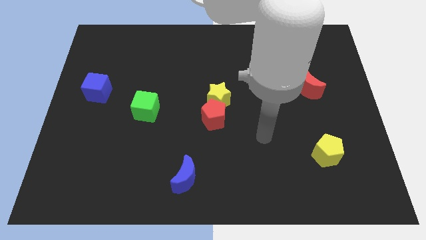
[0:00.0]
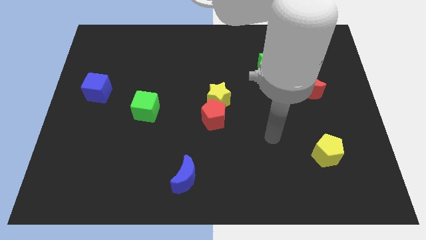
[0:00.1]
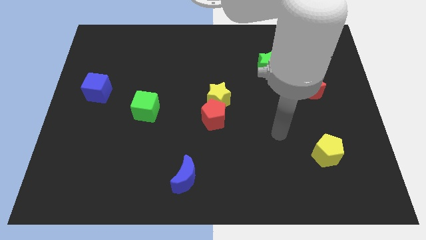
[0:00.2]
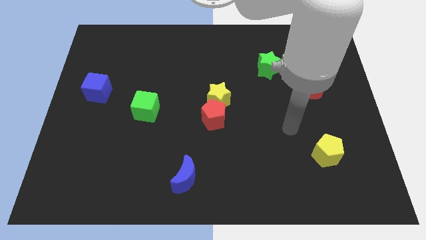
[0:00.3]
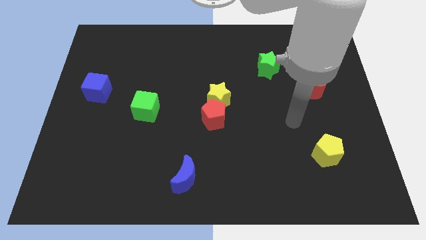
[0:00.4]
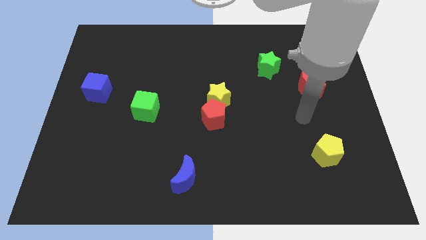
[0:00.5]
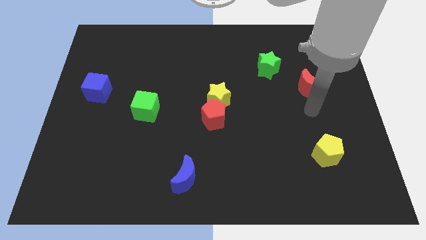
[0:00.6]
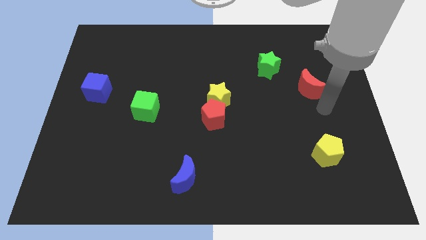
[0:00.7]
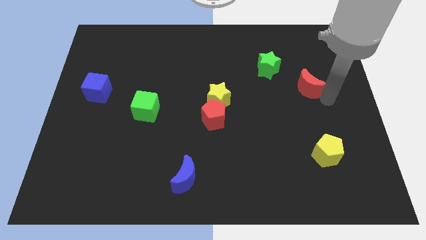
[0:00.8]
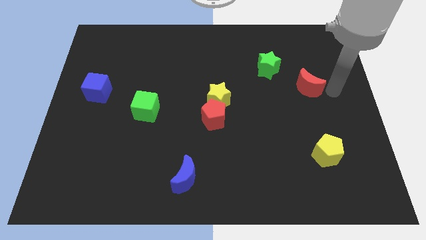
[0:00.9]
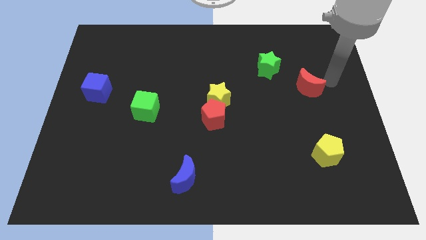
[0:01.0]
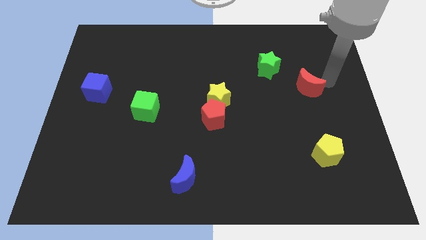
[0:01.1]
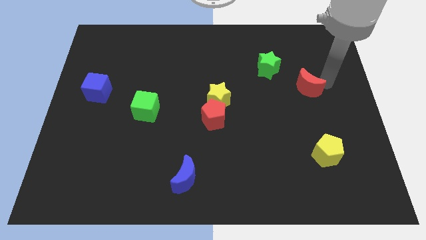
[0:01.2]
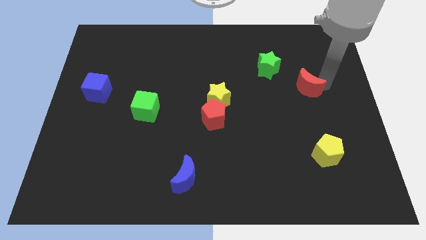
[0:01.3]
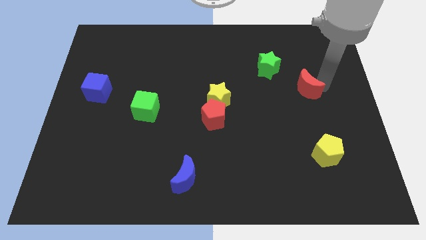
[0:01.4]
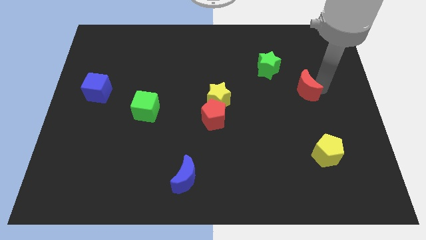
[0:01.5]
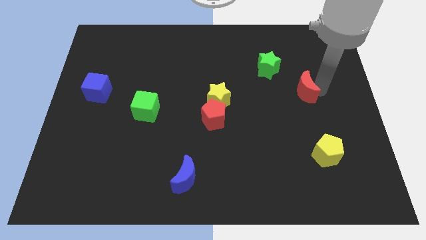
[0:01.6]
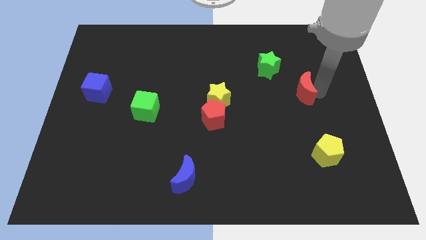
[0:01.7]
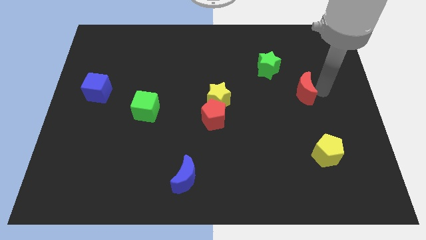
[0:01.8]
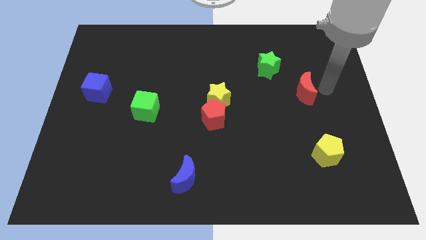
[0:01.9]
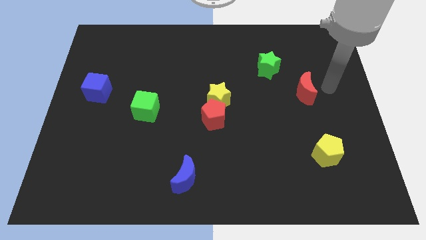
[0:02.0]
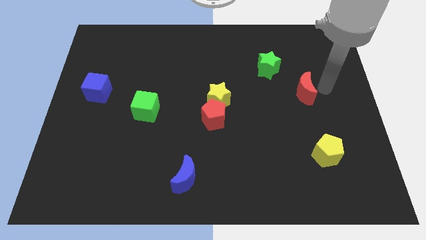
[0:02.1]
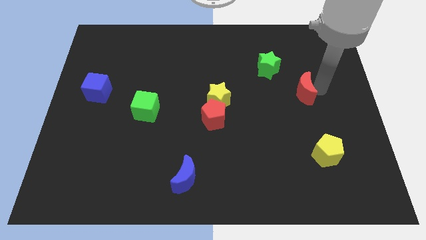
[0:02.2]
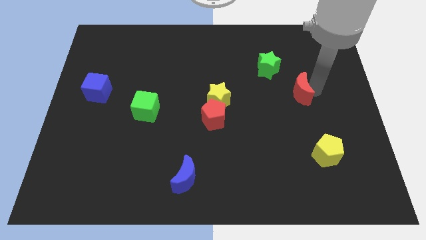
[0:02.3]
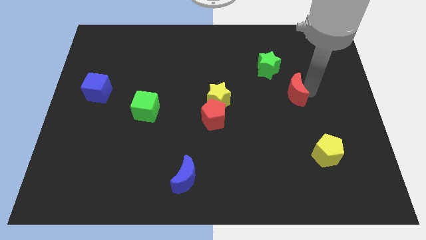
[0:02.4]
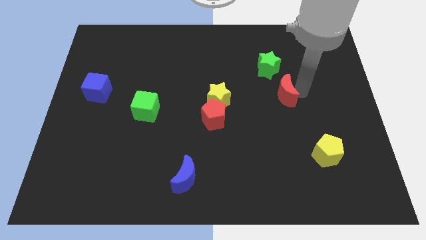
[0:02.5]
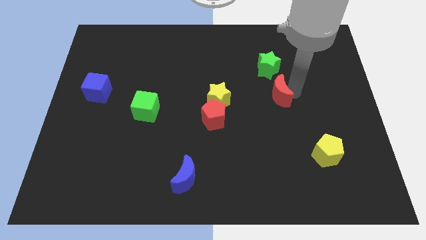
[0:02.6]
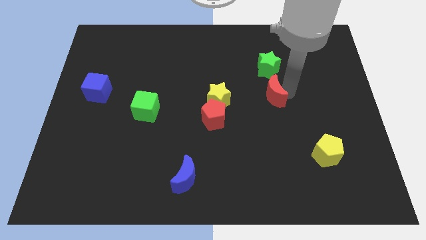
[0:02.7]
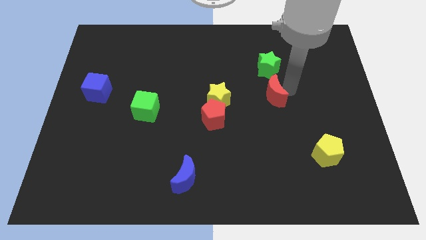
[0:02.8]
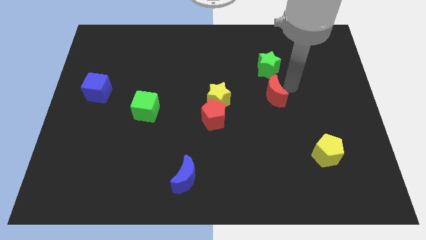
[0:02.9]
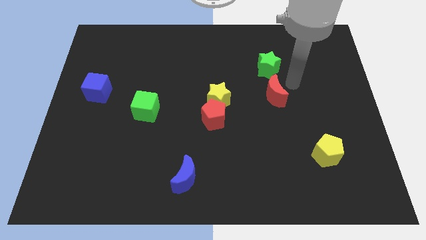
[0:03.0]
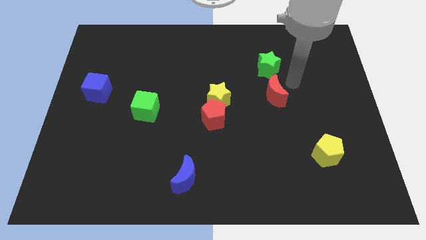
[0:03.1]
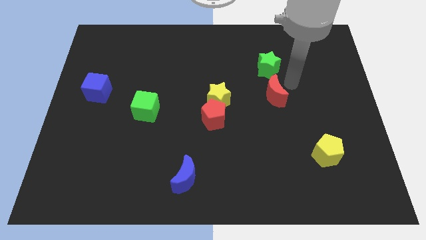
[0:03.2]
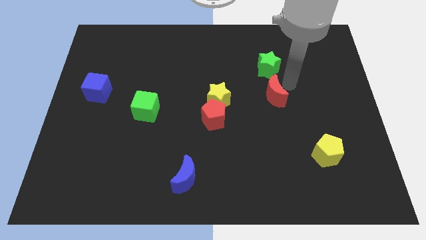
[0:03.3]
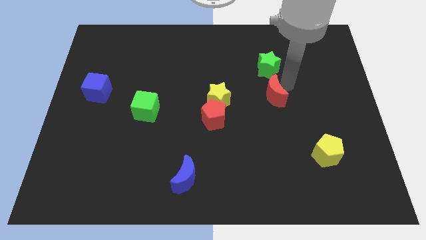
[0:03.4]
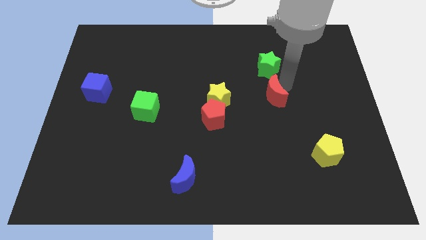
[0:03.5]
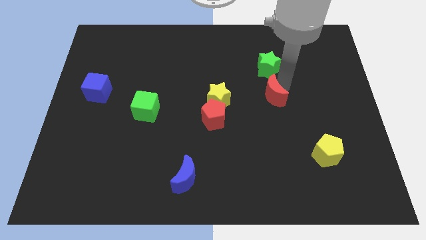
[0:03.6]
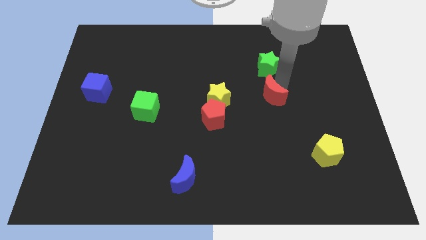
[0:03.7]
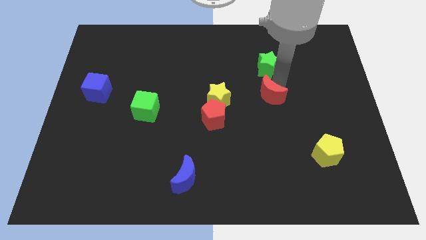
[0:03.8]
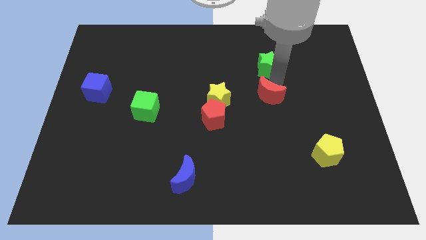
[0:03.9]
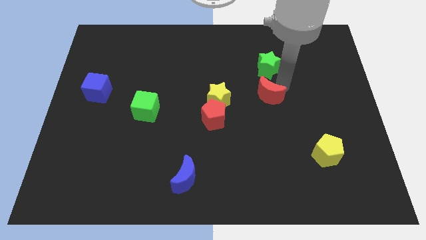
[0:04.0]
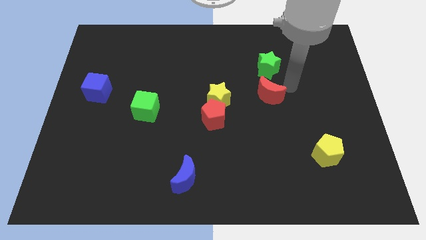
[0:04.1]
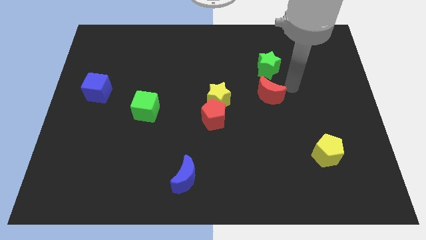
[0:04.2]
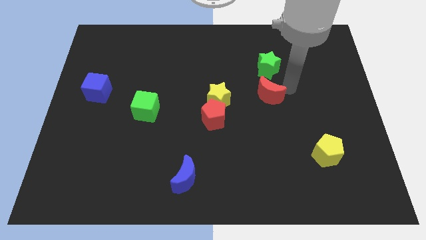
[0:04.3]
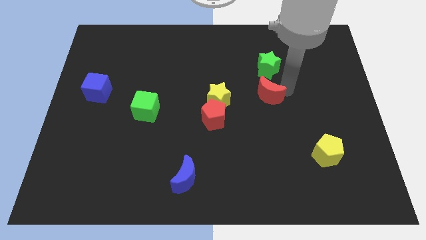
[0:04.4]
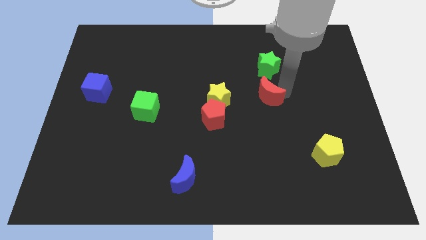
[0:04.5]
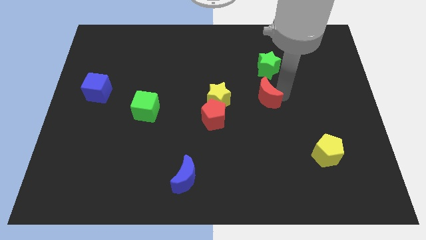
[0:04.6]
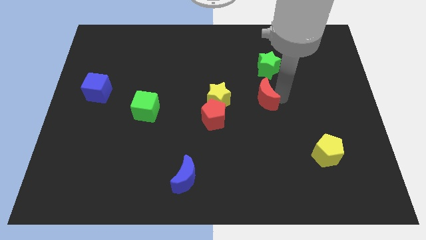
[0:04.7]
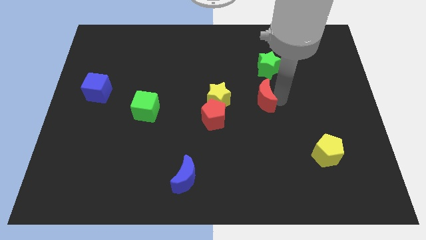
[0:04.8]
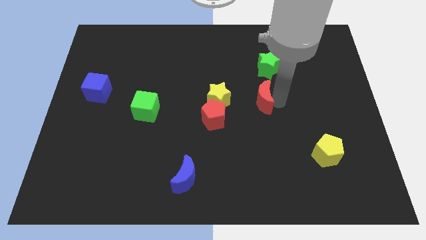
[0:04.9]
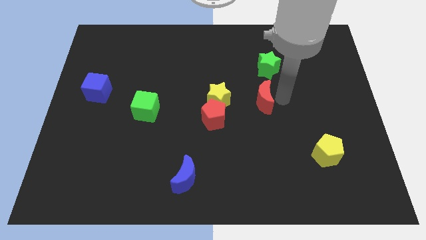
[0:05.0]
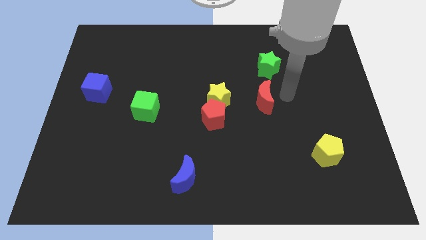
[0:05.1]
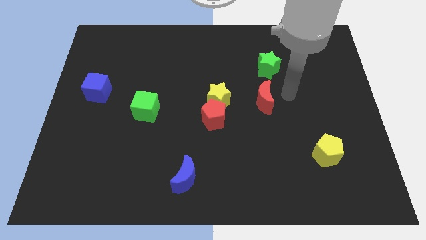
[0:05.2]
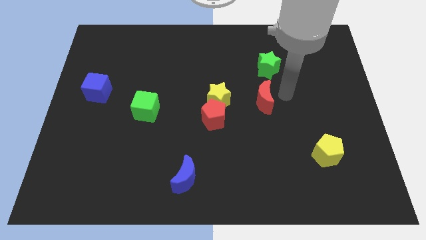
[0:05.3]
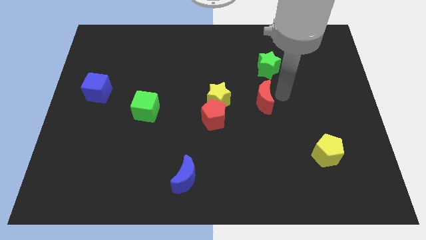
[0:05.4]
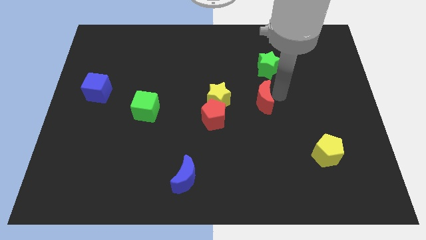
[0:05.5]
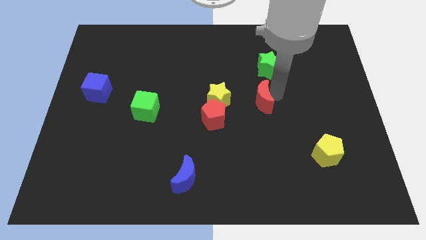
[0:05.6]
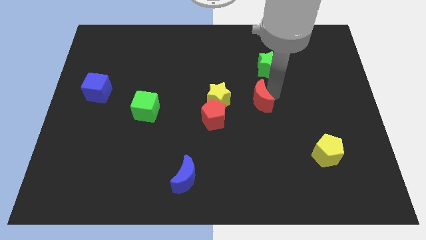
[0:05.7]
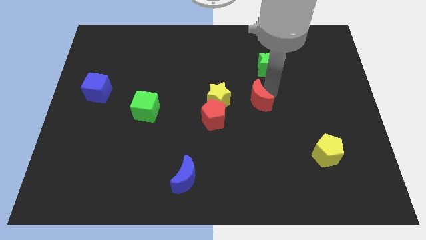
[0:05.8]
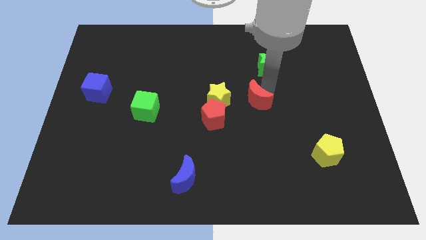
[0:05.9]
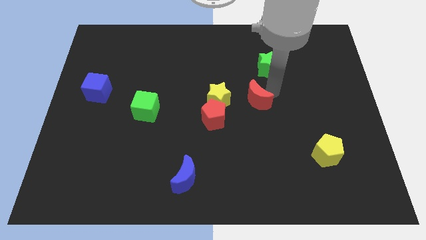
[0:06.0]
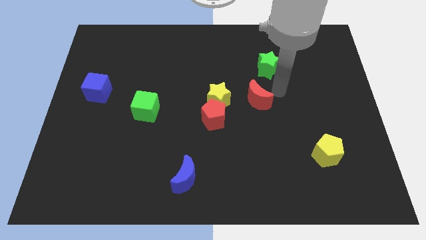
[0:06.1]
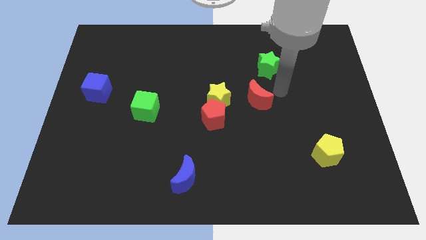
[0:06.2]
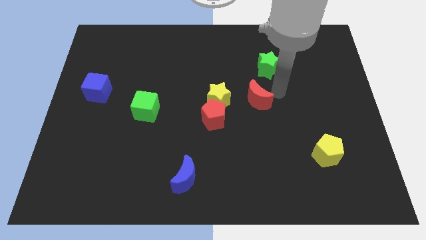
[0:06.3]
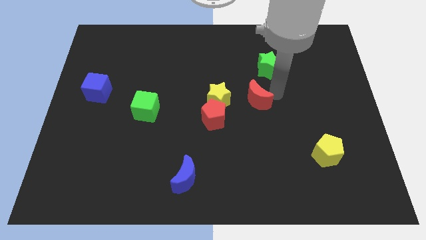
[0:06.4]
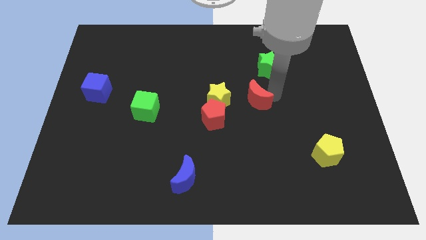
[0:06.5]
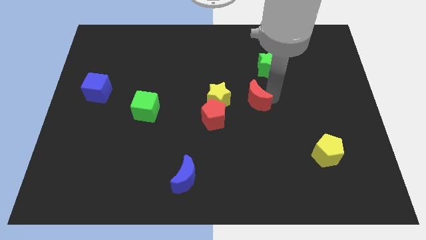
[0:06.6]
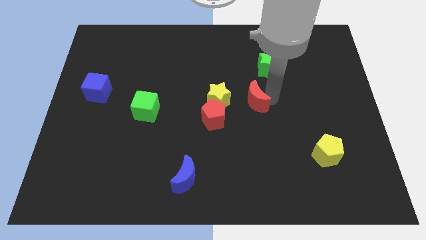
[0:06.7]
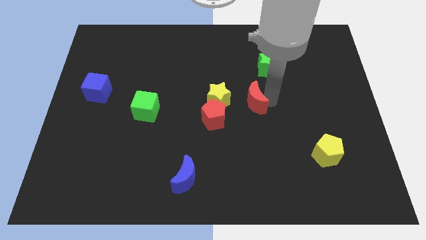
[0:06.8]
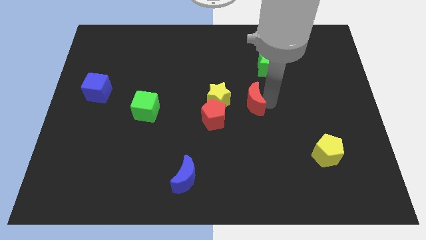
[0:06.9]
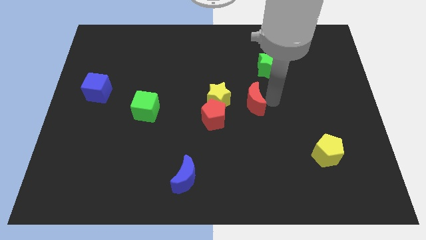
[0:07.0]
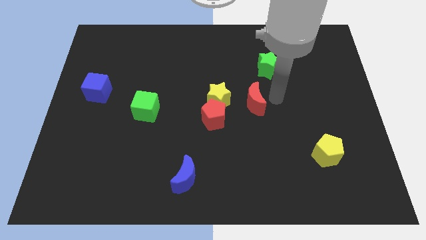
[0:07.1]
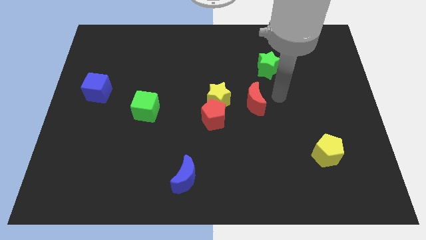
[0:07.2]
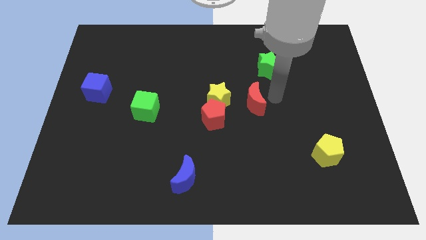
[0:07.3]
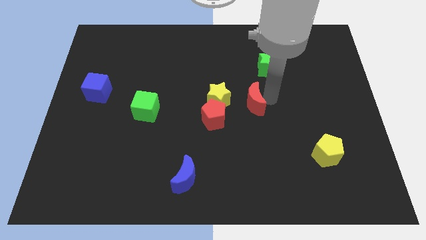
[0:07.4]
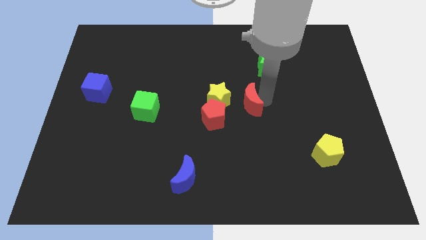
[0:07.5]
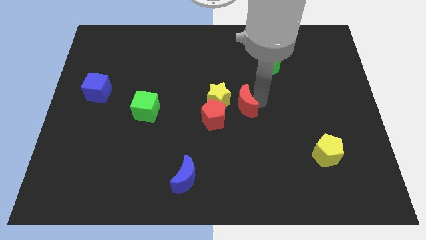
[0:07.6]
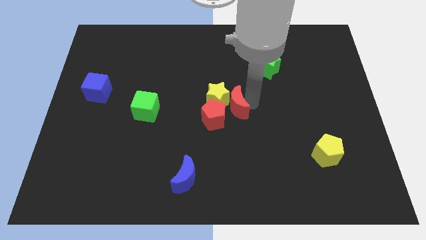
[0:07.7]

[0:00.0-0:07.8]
move the red moon to the red pentagon
